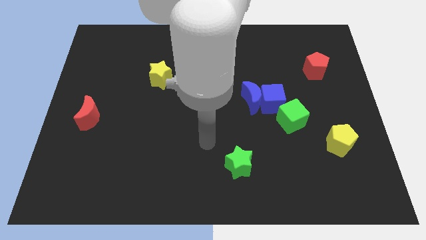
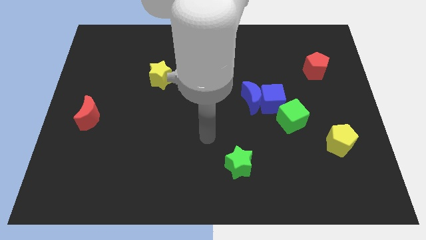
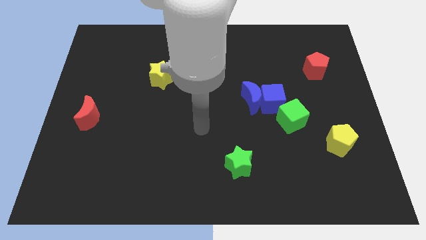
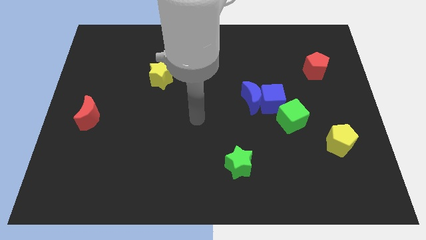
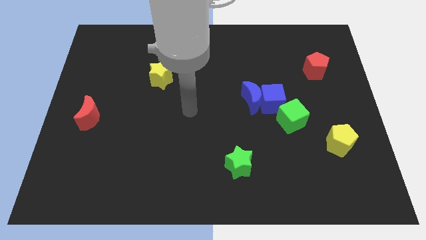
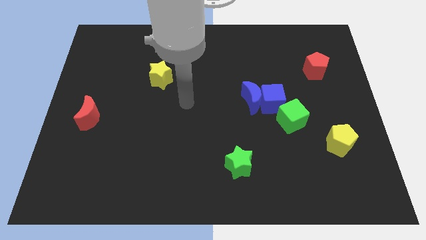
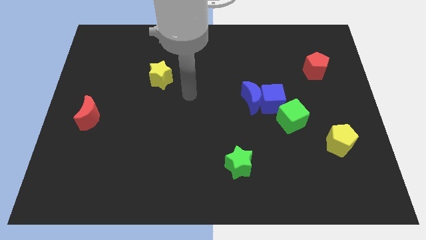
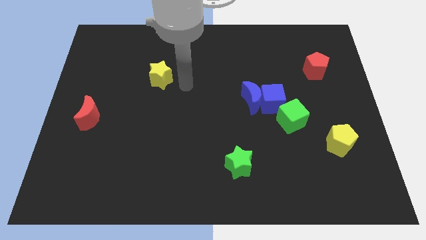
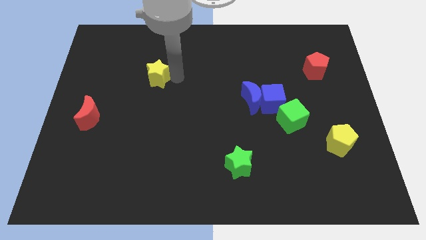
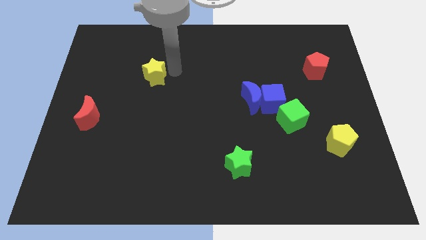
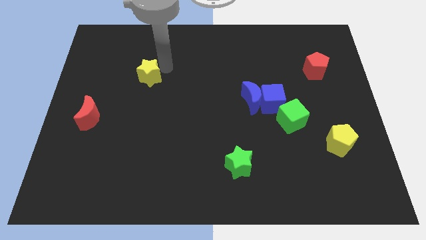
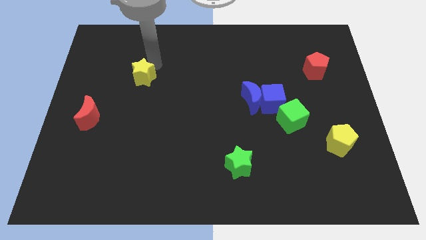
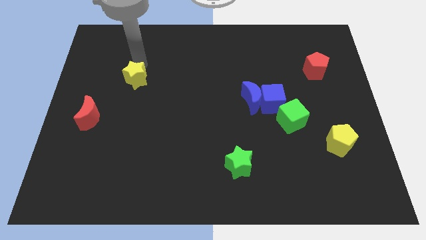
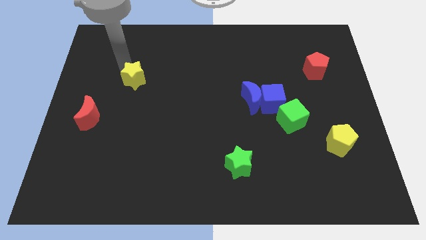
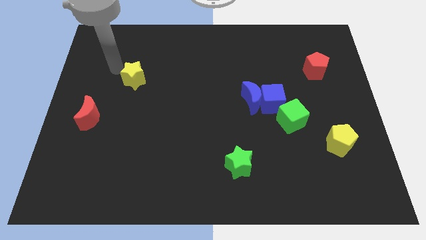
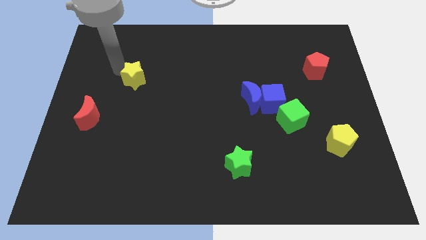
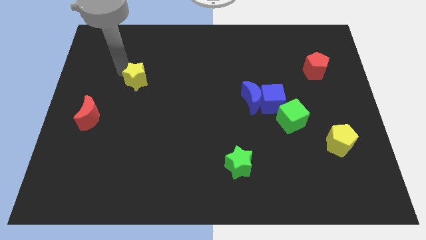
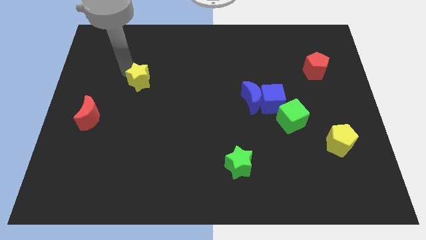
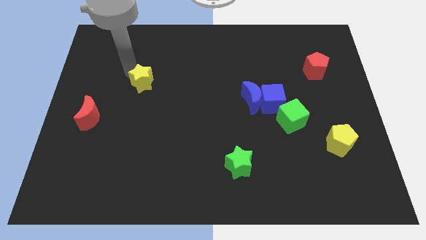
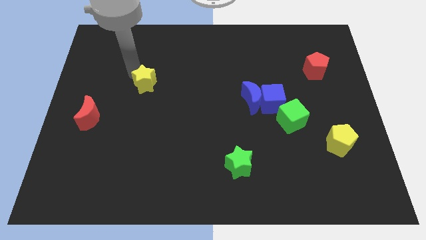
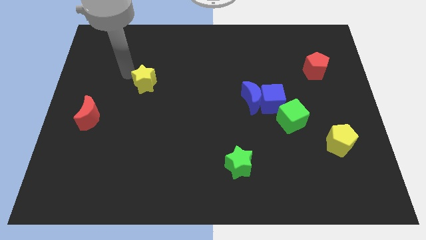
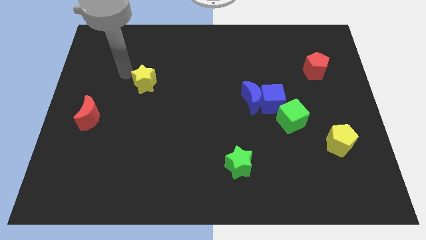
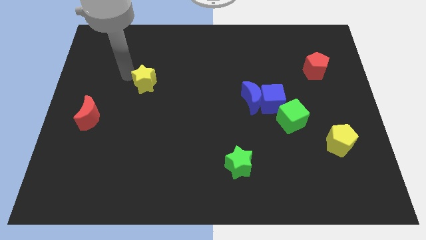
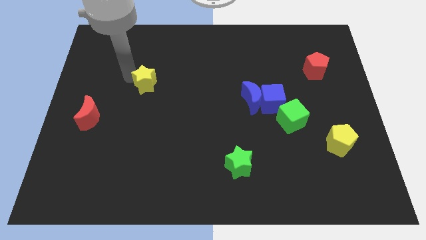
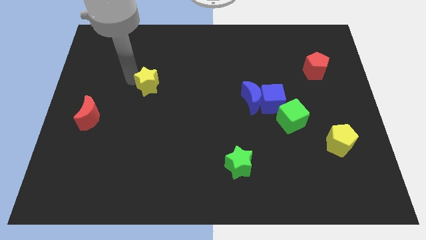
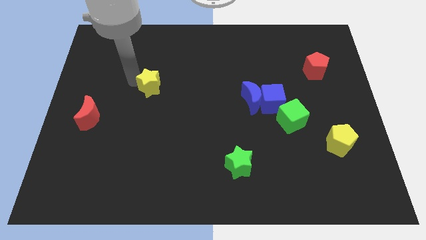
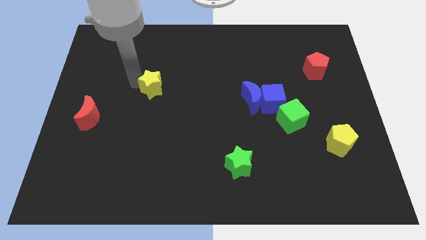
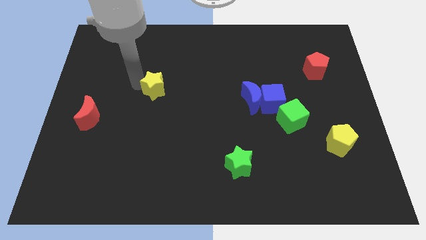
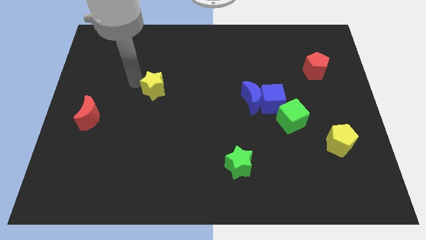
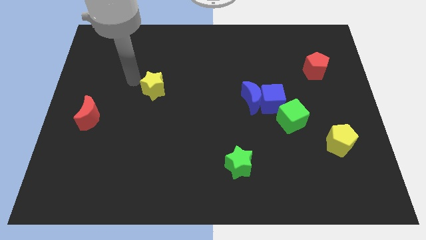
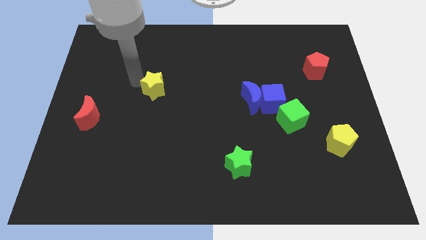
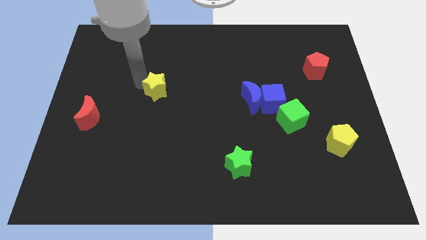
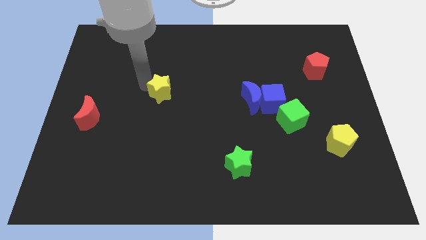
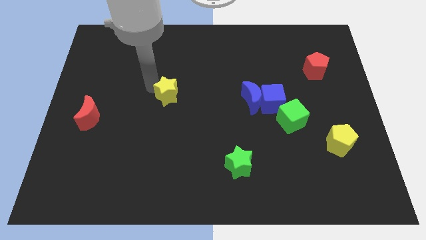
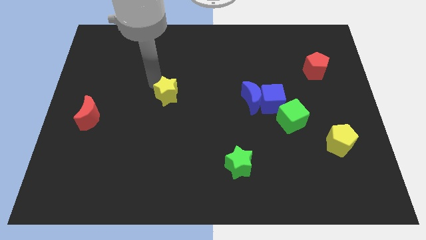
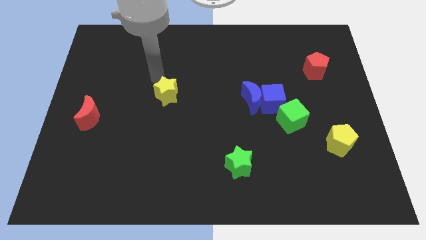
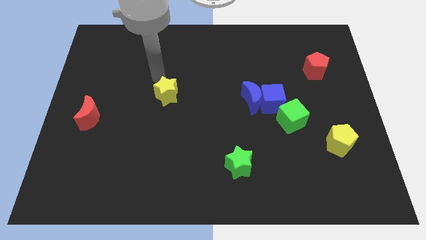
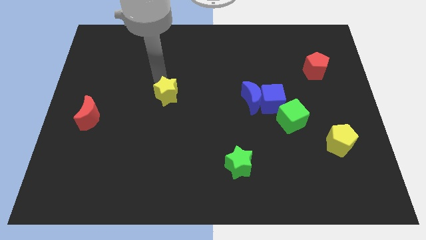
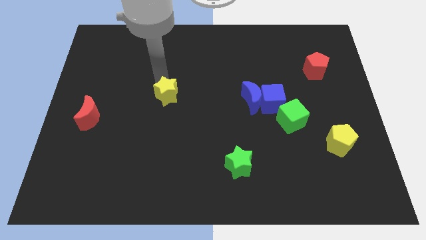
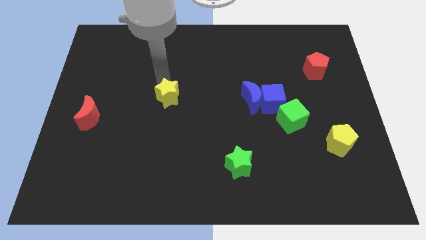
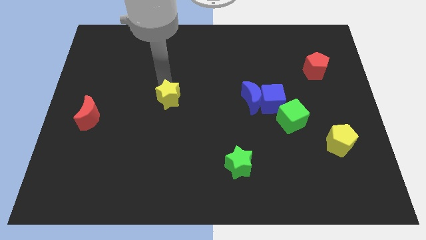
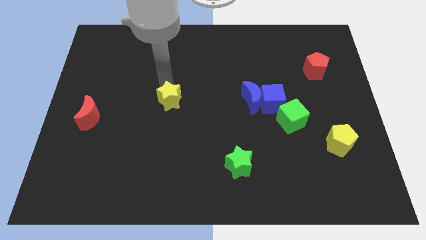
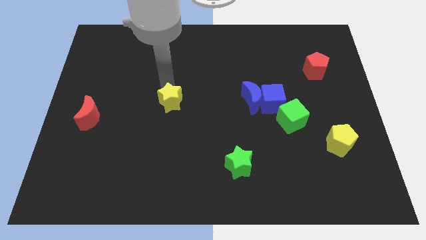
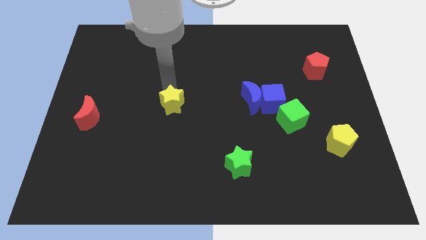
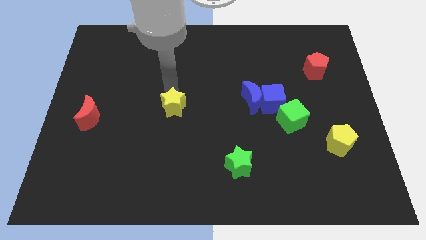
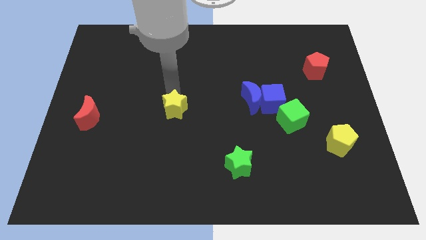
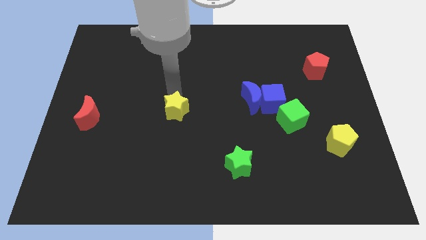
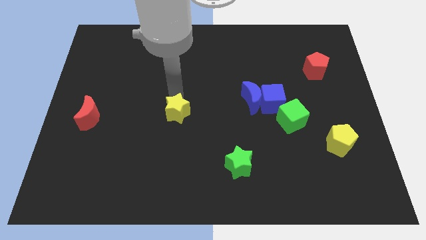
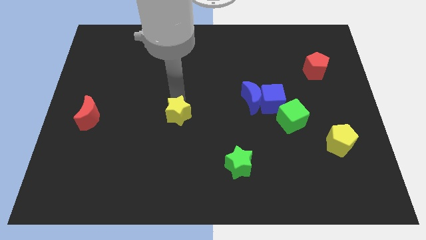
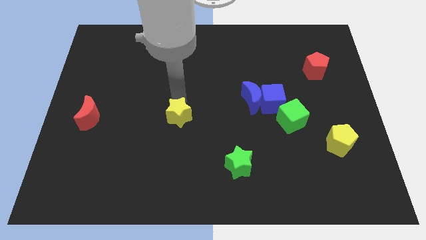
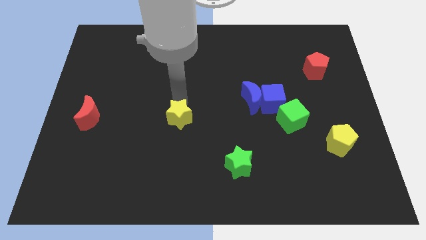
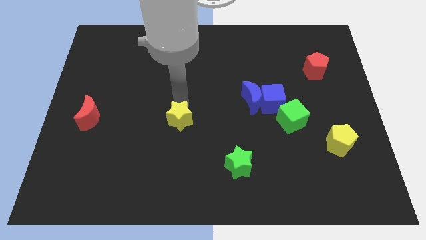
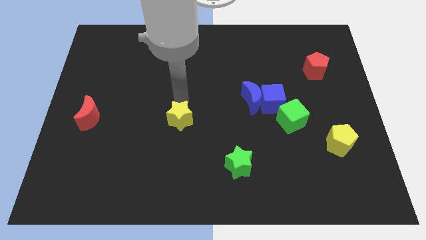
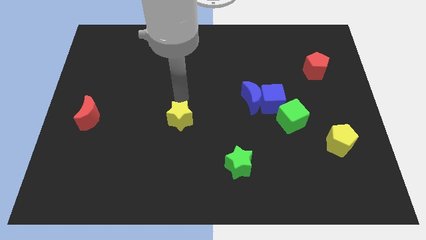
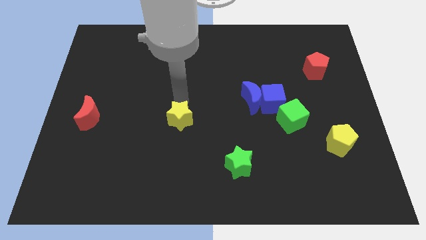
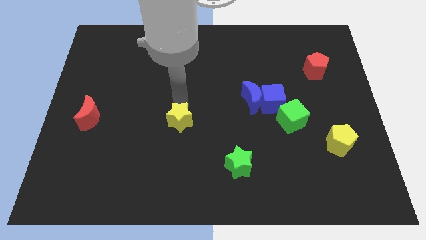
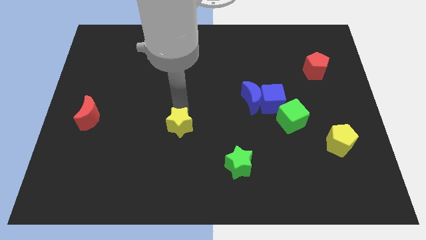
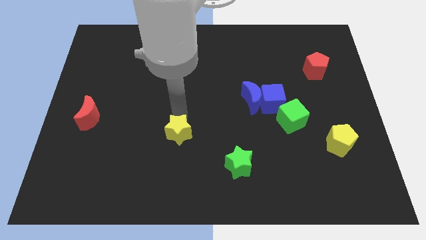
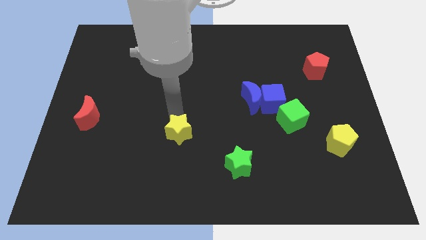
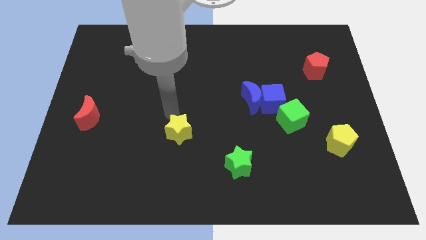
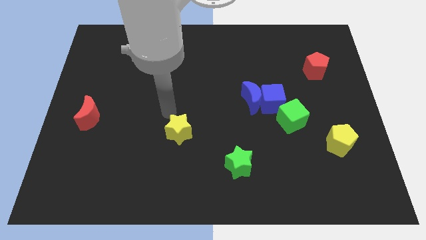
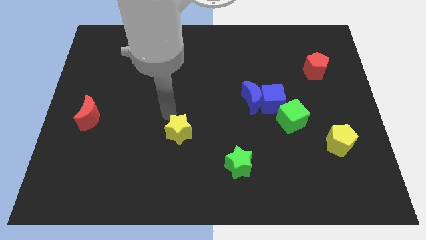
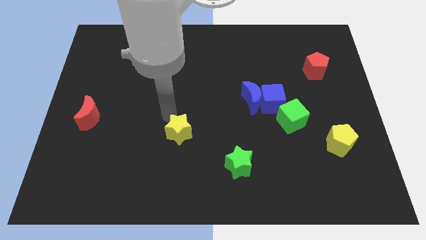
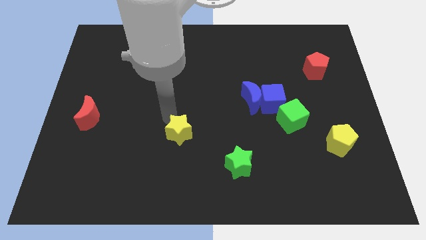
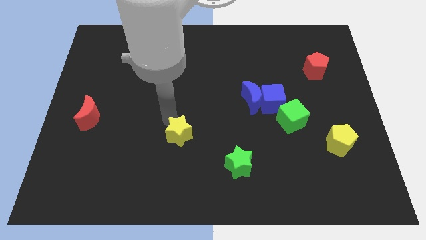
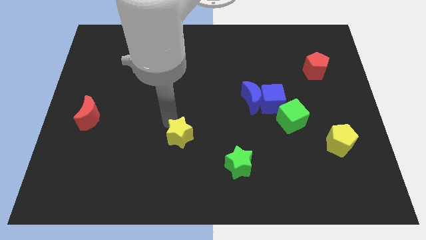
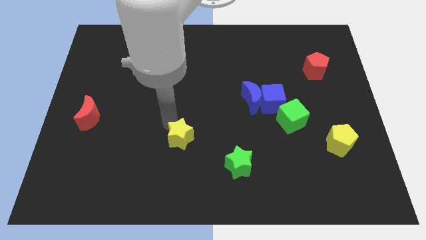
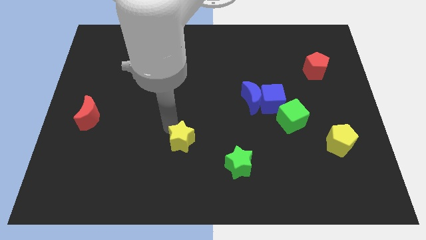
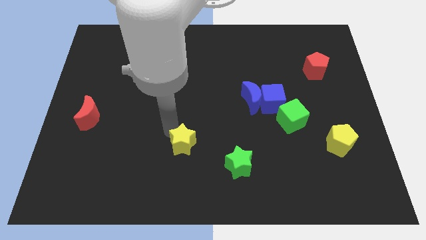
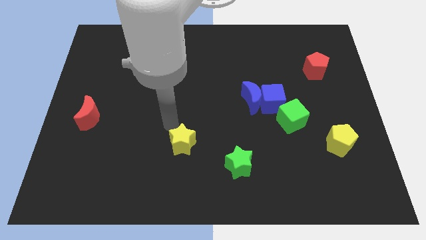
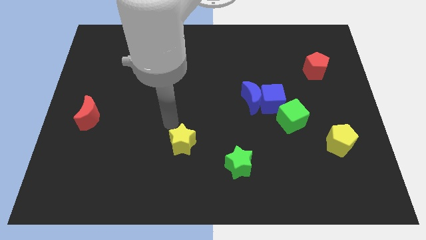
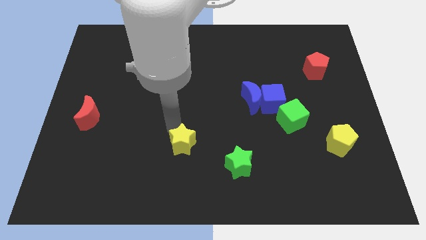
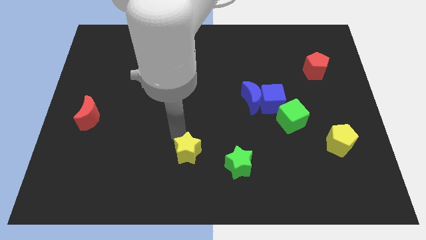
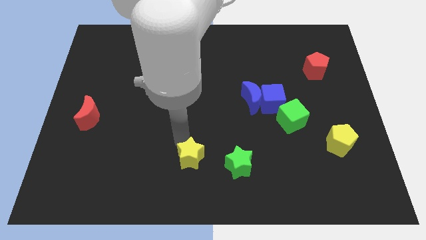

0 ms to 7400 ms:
slide the yellow star to the bottom
